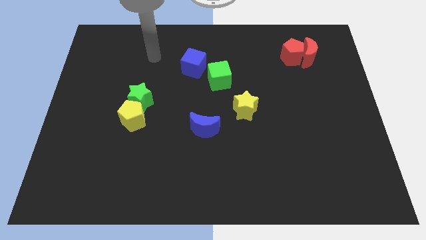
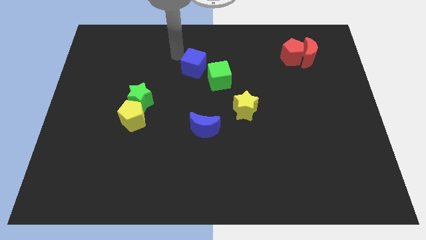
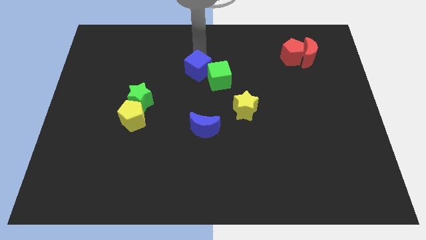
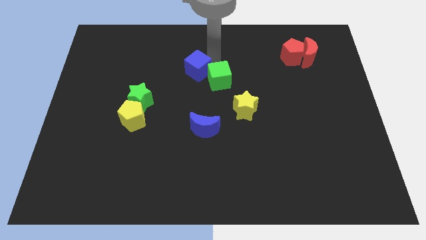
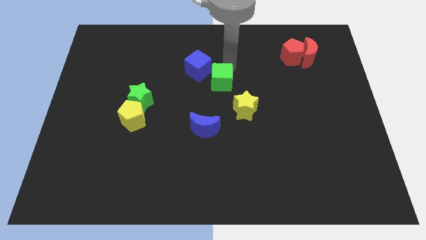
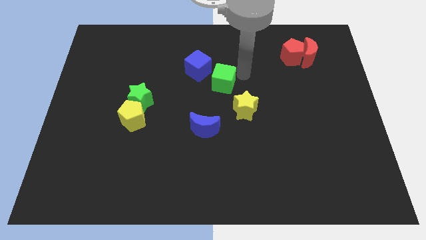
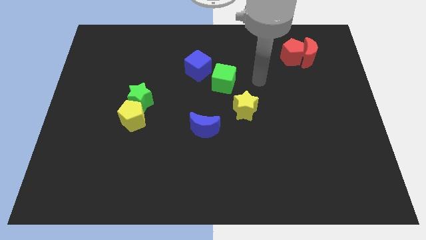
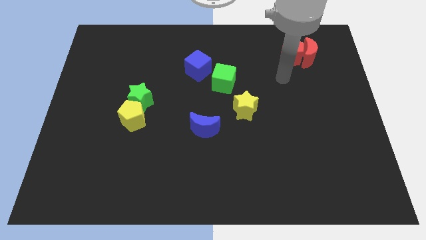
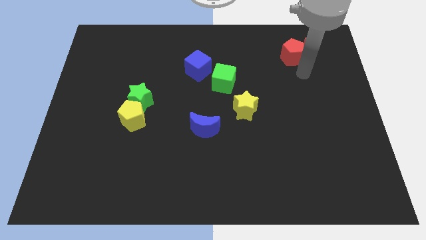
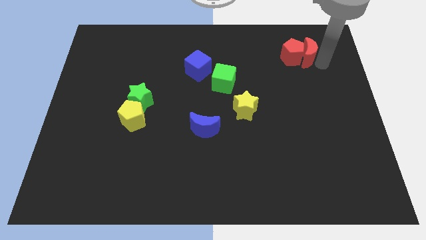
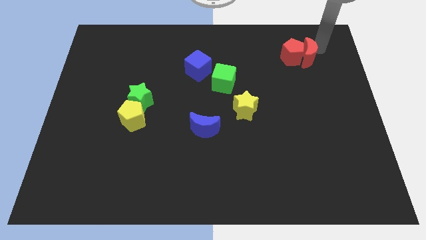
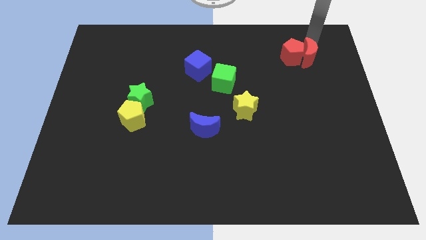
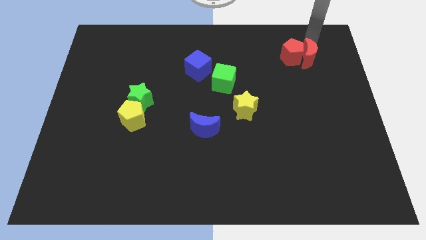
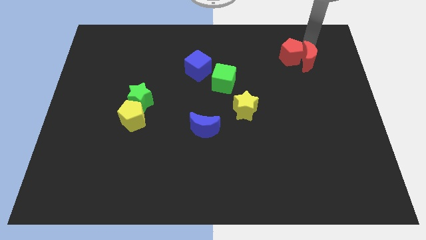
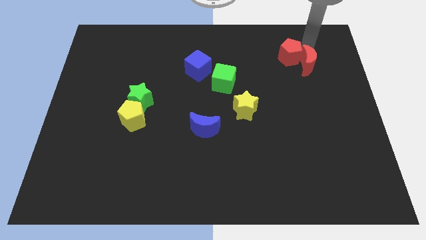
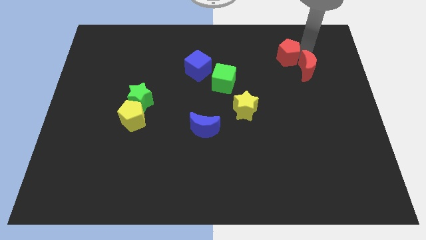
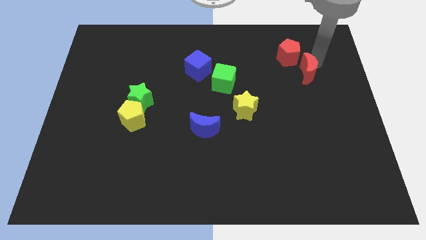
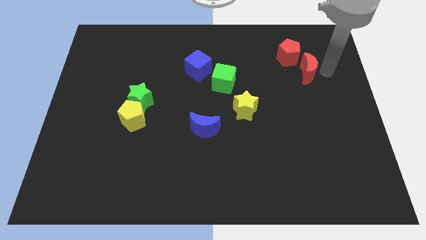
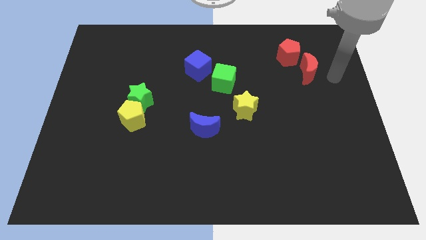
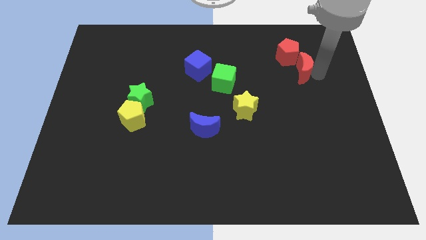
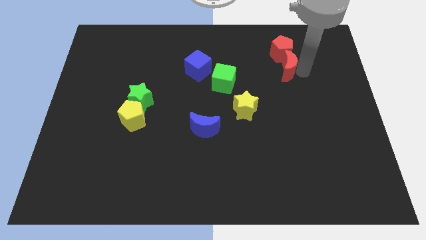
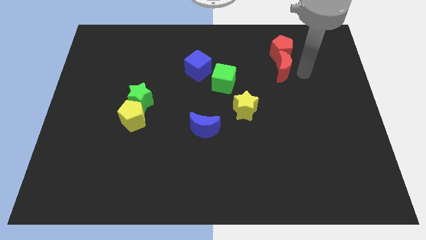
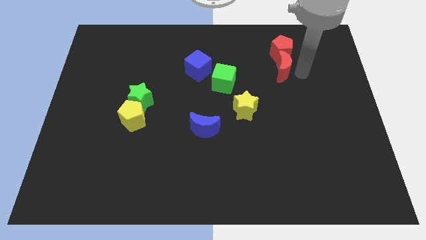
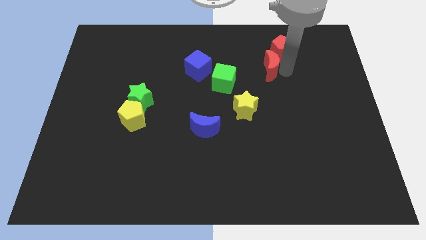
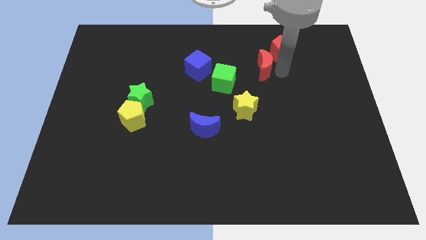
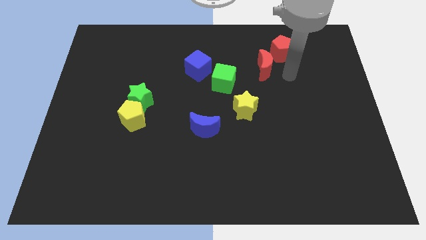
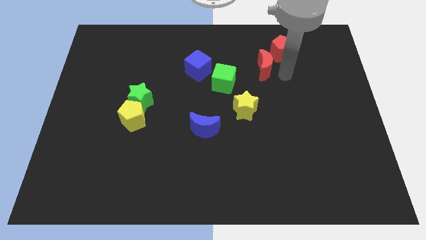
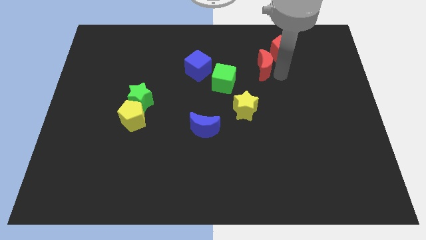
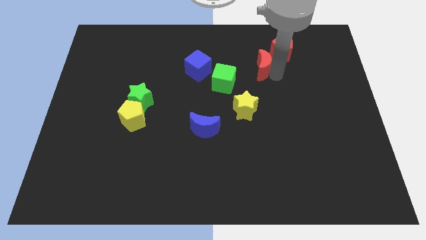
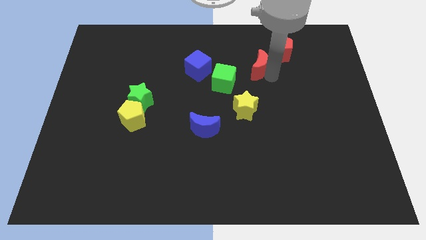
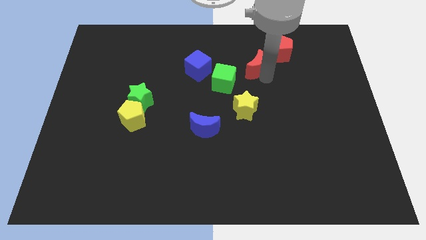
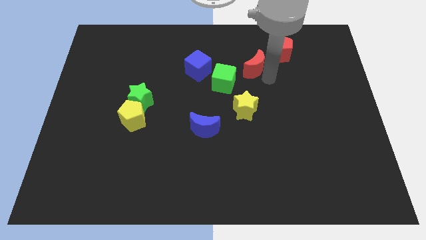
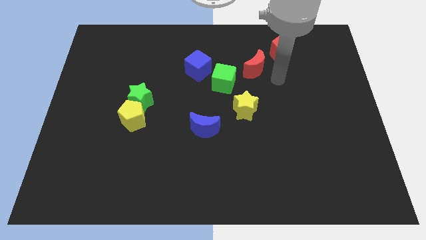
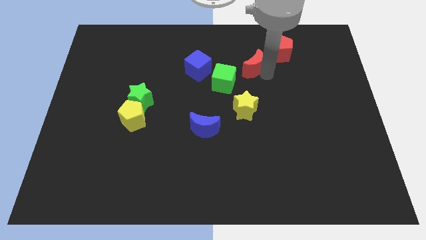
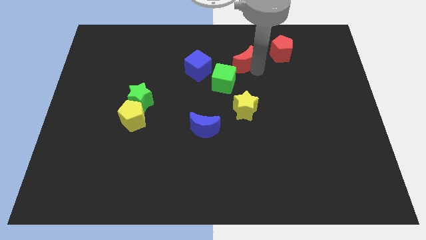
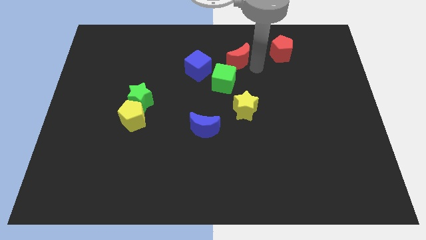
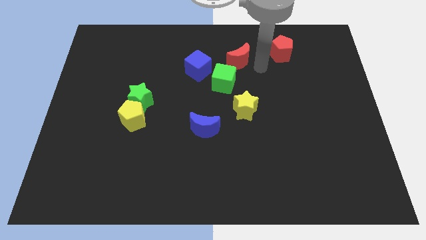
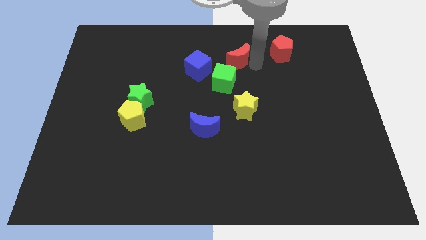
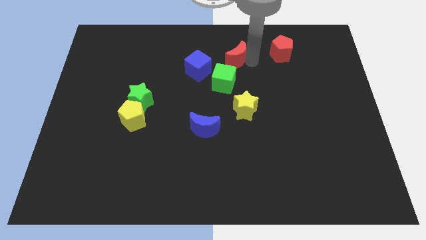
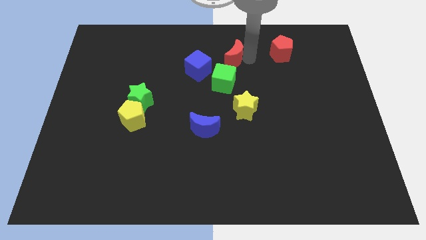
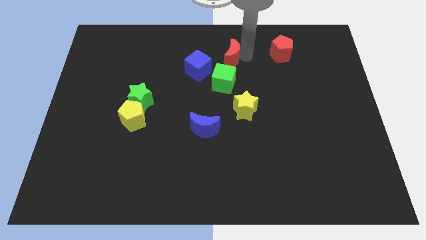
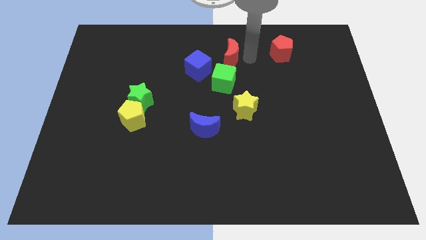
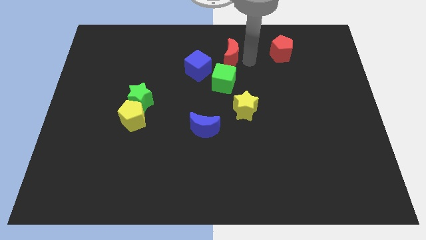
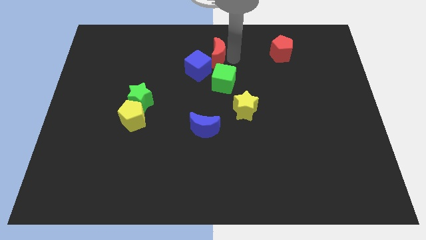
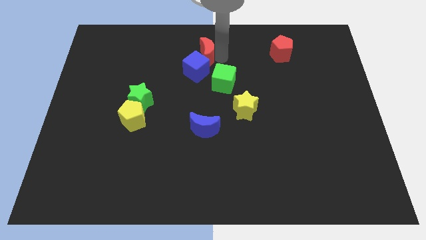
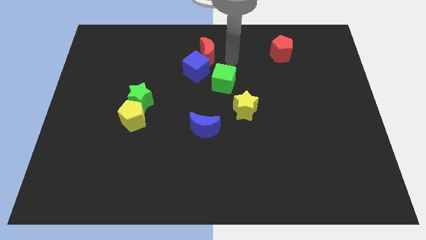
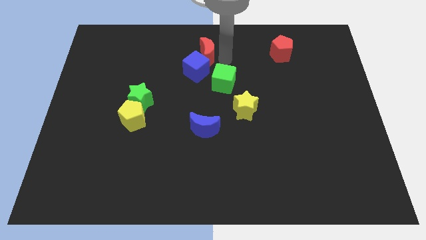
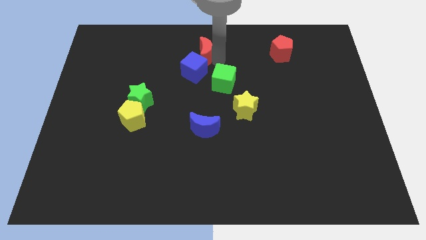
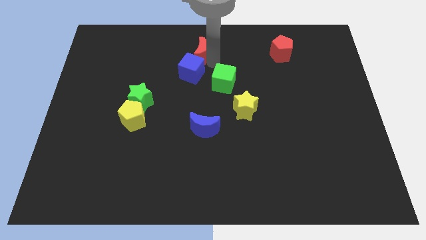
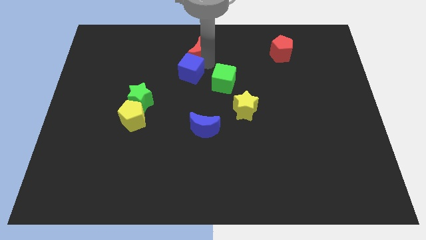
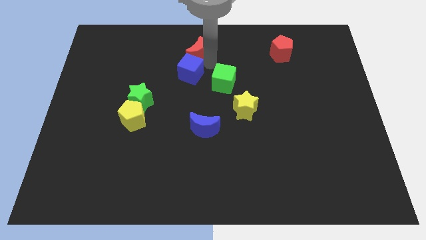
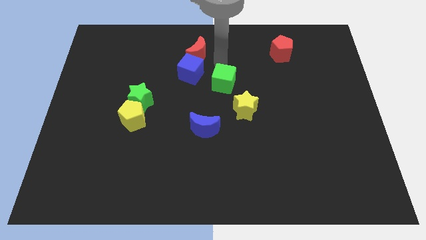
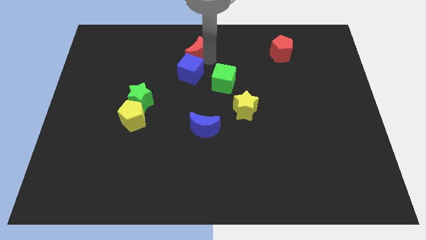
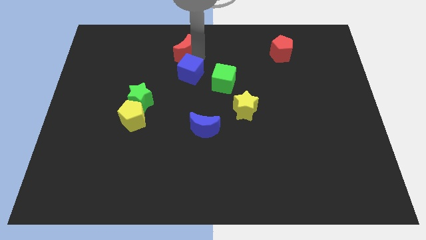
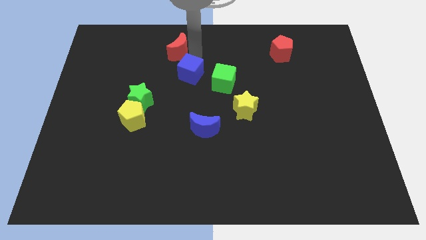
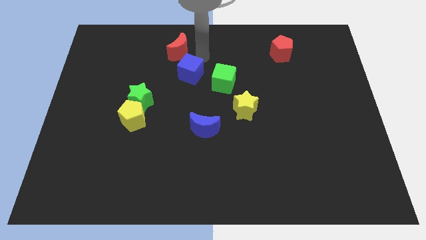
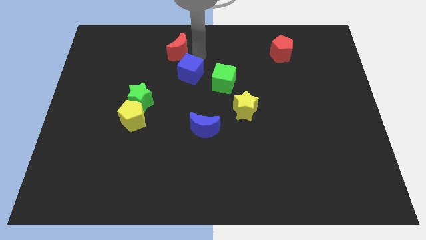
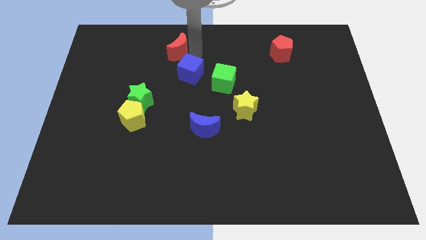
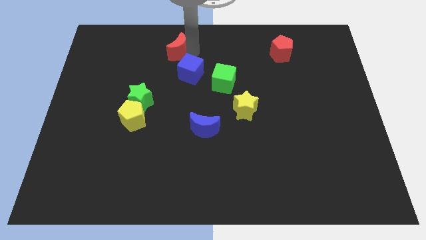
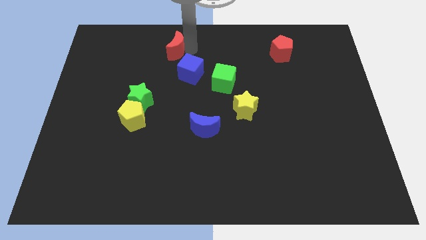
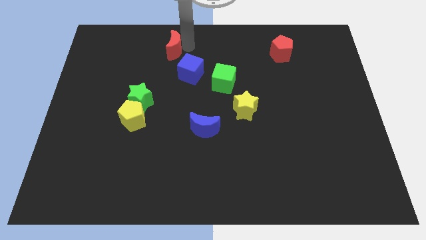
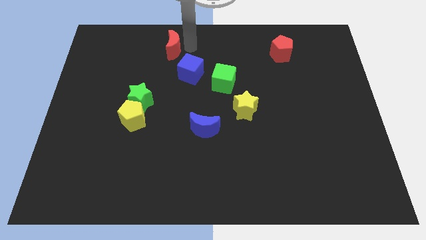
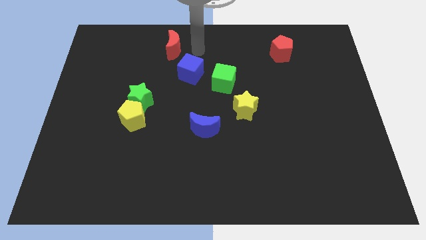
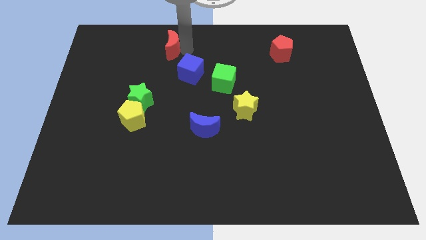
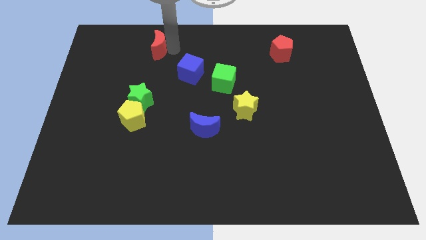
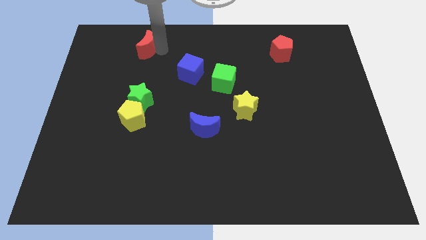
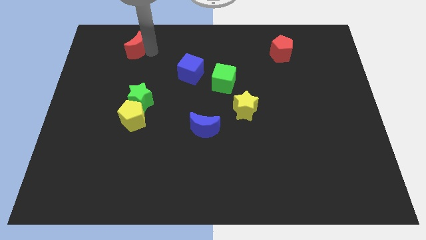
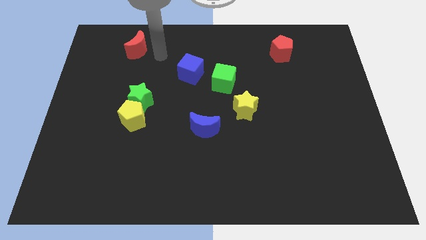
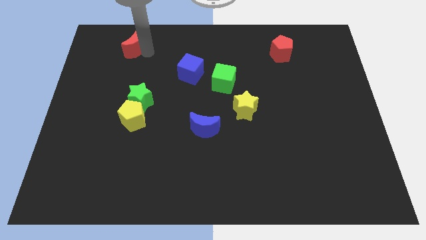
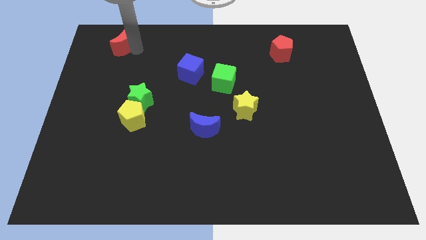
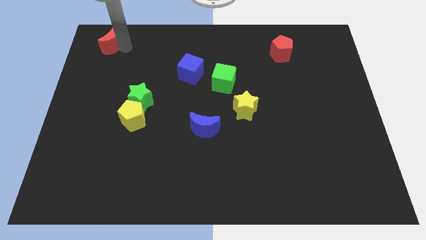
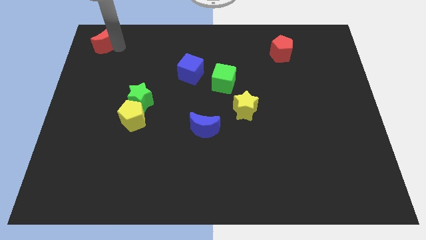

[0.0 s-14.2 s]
put the red moon to the top left
